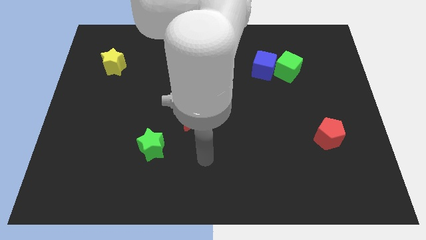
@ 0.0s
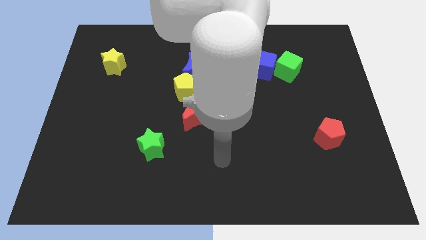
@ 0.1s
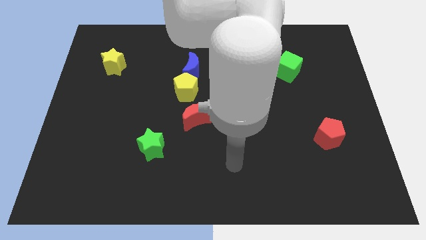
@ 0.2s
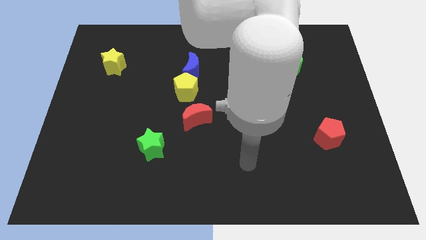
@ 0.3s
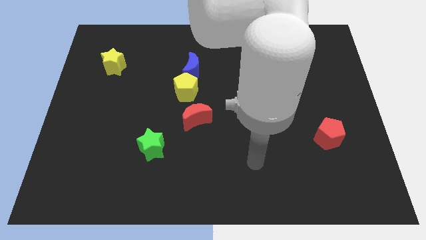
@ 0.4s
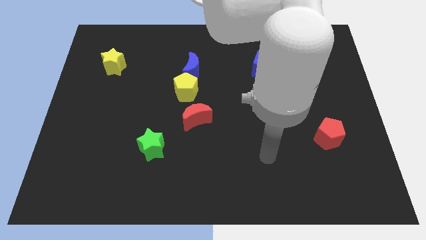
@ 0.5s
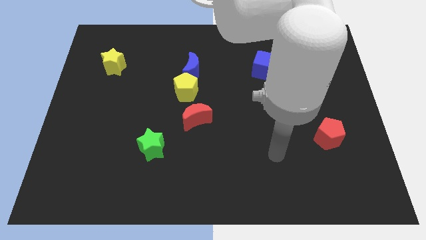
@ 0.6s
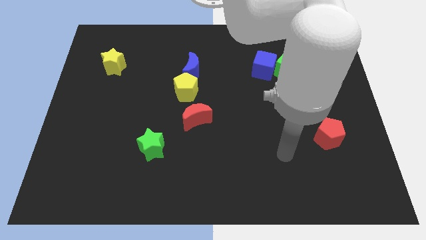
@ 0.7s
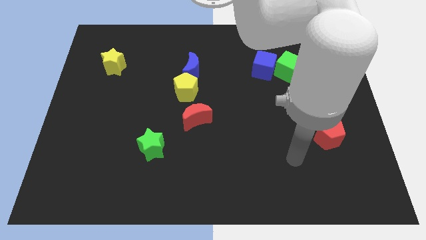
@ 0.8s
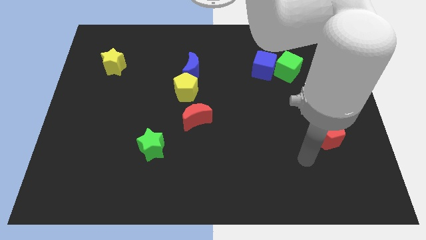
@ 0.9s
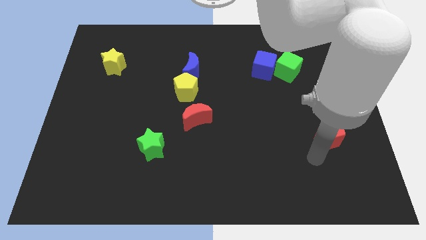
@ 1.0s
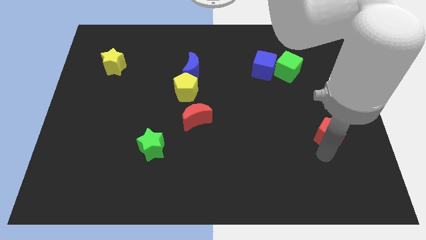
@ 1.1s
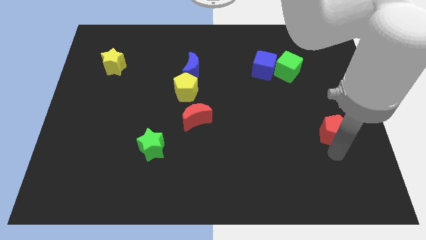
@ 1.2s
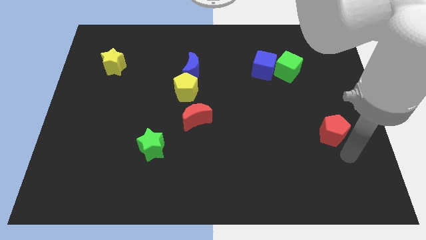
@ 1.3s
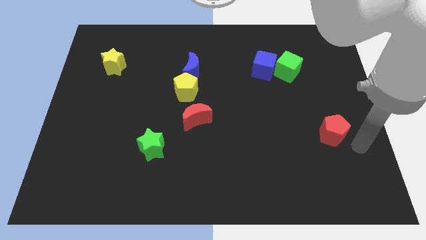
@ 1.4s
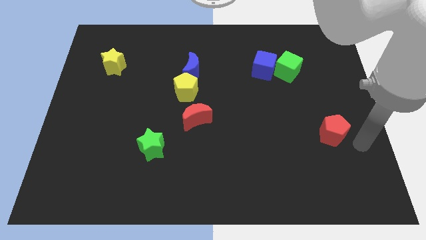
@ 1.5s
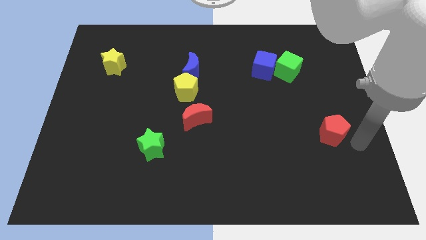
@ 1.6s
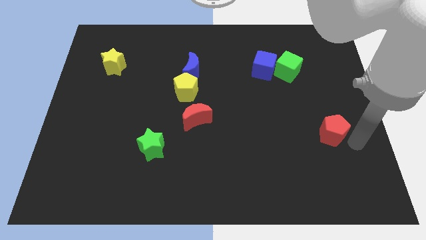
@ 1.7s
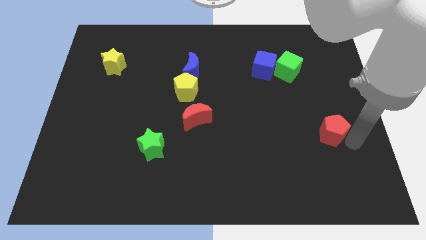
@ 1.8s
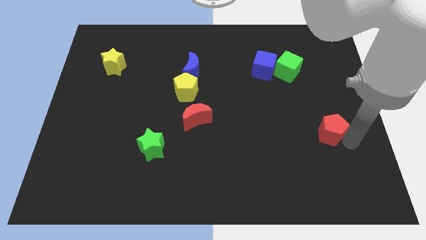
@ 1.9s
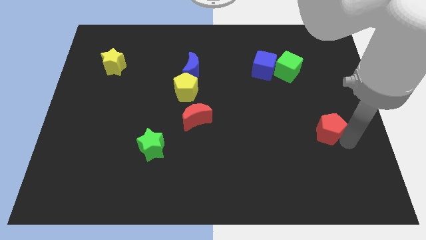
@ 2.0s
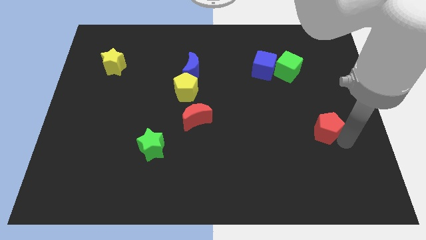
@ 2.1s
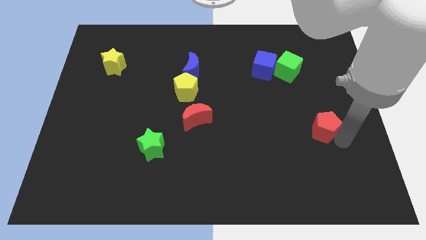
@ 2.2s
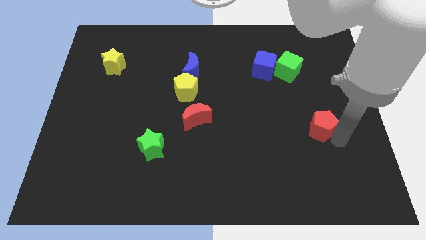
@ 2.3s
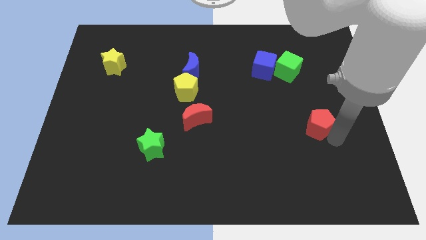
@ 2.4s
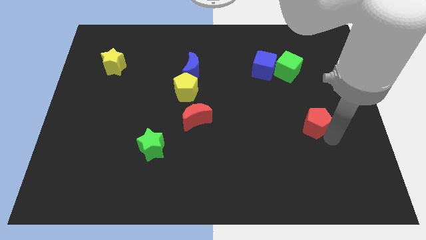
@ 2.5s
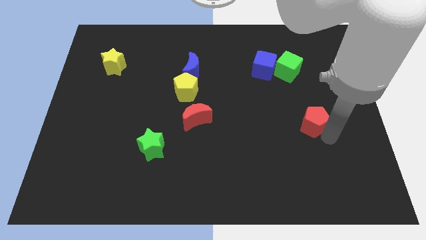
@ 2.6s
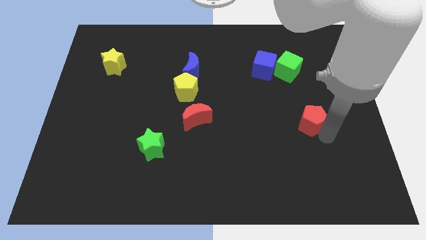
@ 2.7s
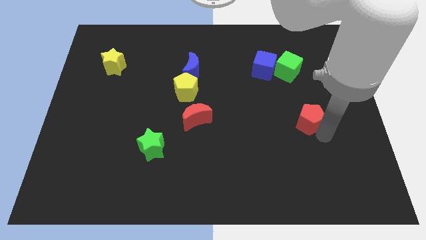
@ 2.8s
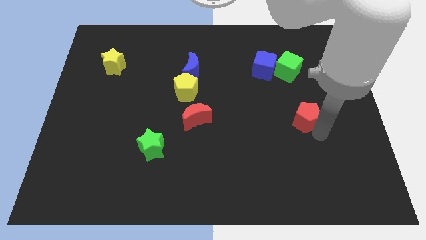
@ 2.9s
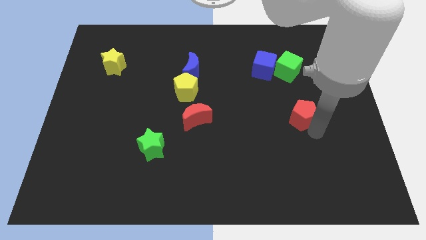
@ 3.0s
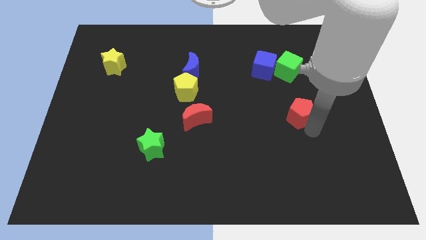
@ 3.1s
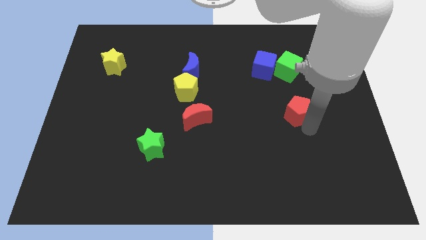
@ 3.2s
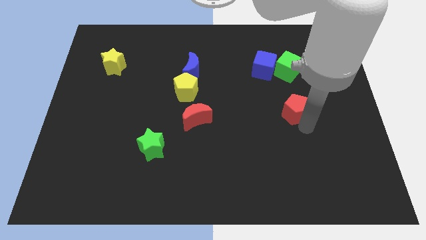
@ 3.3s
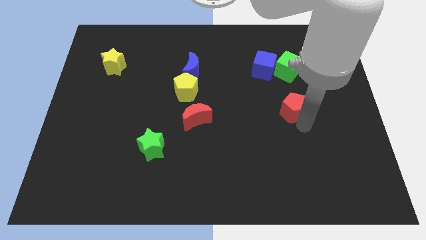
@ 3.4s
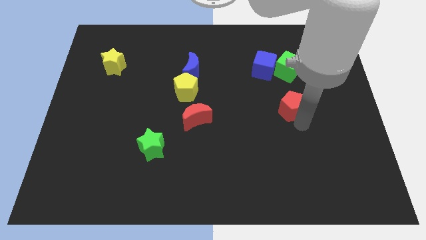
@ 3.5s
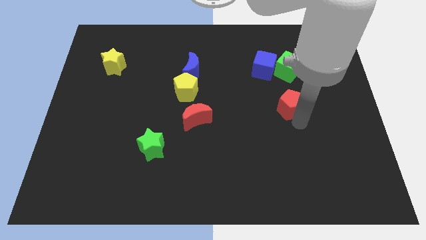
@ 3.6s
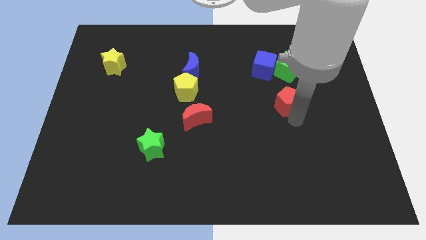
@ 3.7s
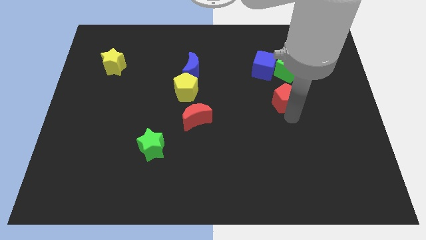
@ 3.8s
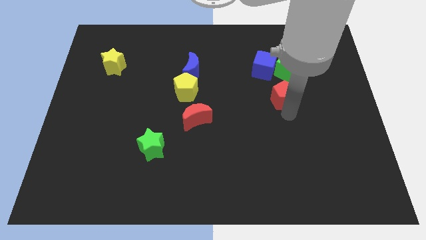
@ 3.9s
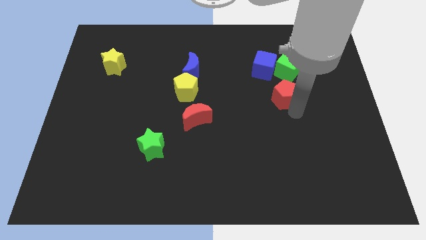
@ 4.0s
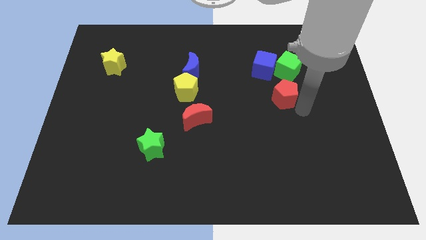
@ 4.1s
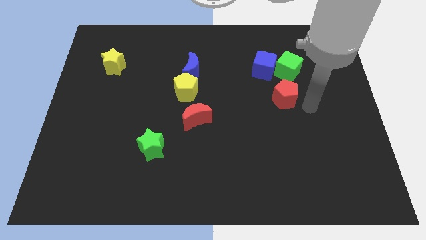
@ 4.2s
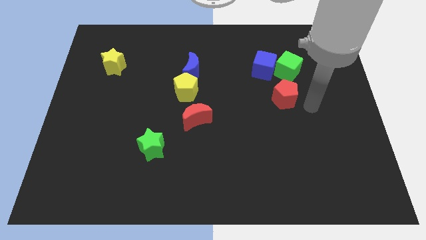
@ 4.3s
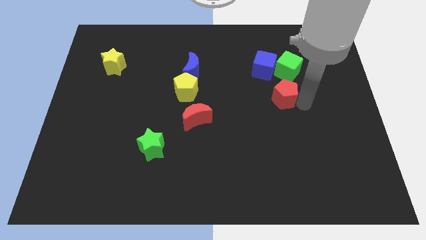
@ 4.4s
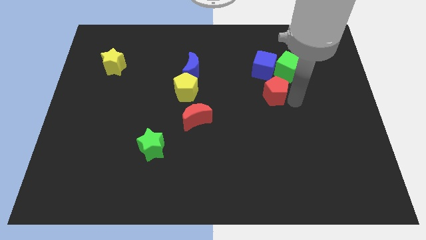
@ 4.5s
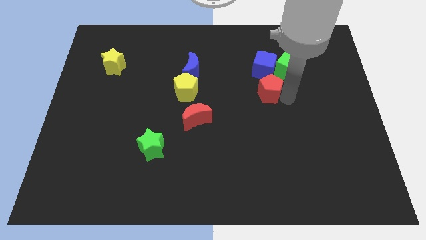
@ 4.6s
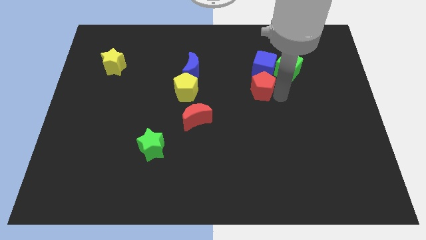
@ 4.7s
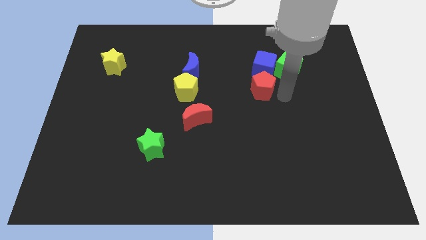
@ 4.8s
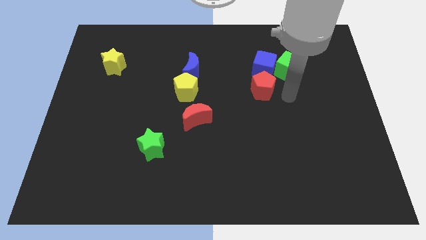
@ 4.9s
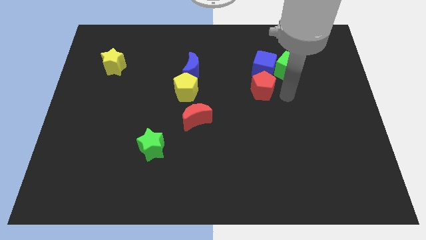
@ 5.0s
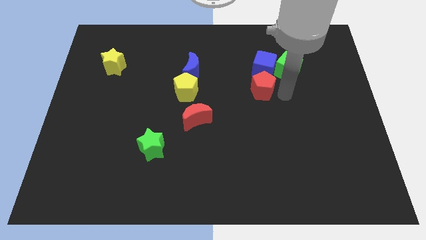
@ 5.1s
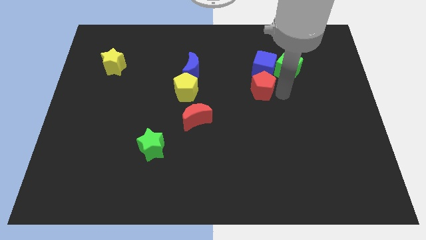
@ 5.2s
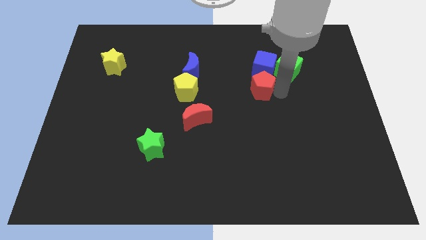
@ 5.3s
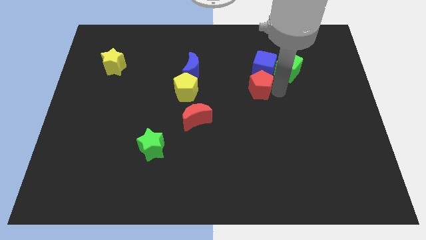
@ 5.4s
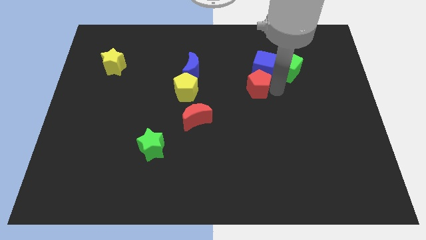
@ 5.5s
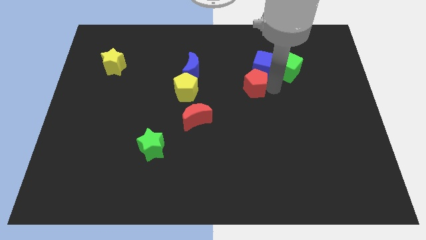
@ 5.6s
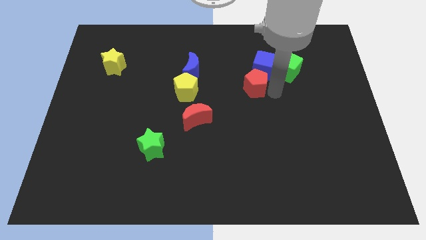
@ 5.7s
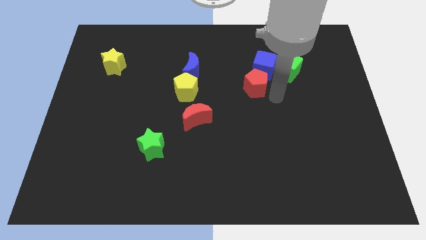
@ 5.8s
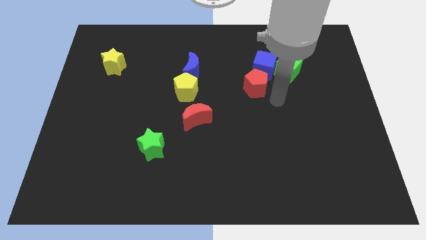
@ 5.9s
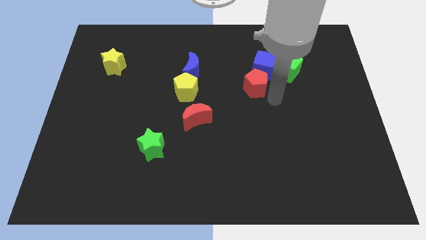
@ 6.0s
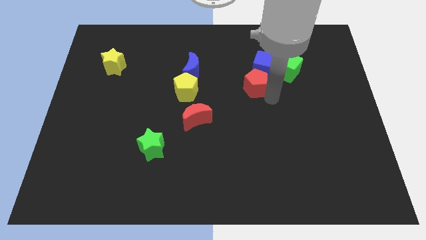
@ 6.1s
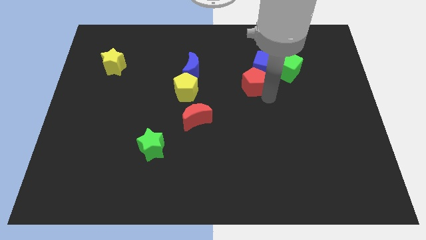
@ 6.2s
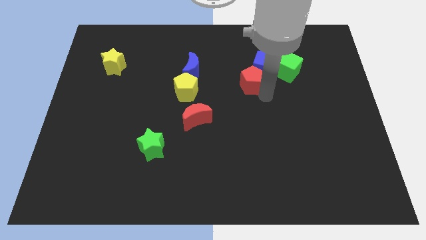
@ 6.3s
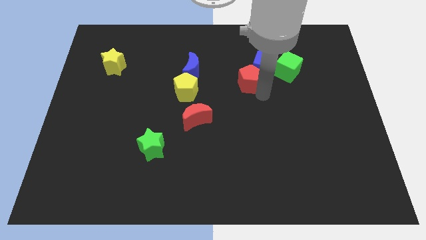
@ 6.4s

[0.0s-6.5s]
put the red pentagon right of the blue moon

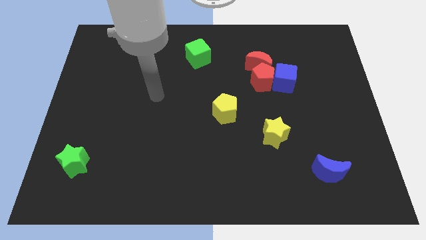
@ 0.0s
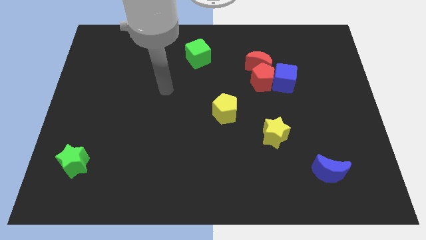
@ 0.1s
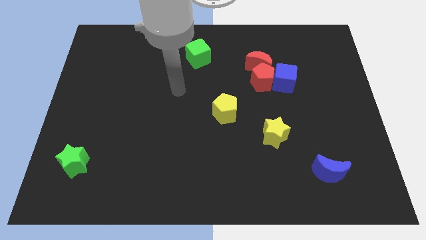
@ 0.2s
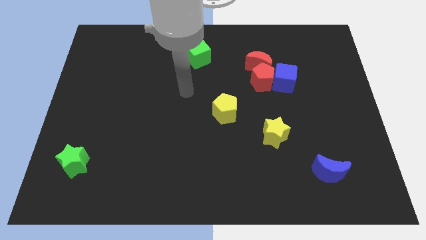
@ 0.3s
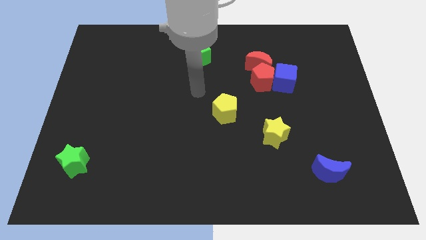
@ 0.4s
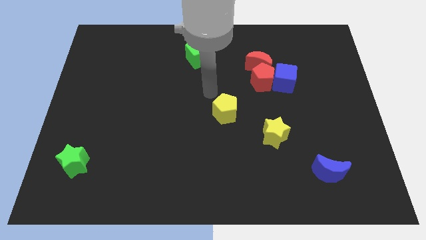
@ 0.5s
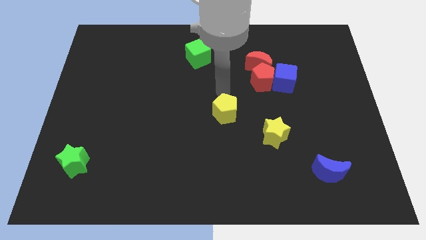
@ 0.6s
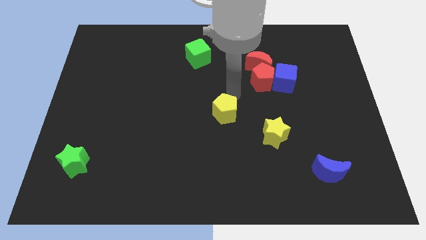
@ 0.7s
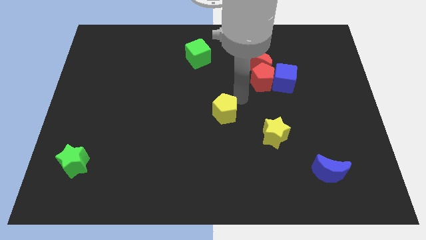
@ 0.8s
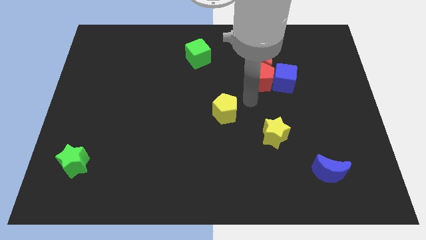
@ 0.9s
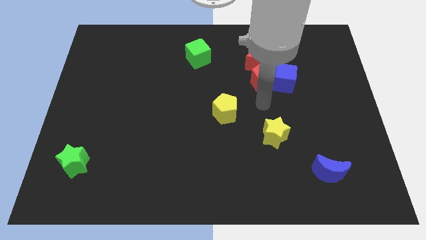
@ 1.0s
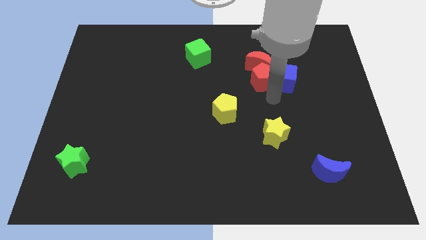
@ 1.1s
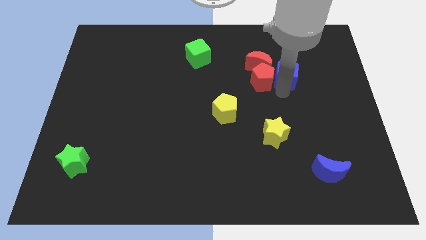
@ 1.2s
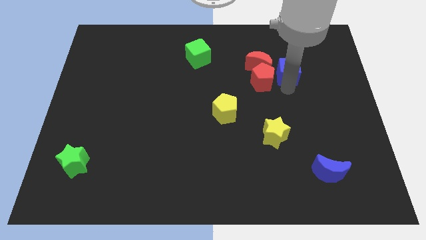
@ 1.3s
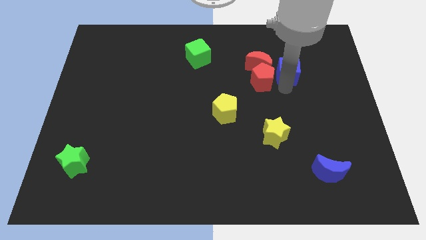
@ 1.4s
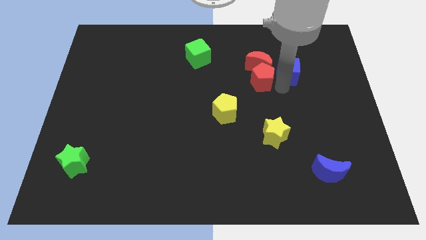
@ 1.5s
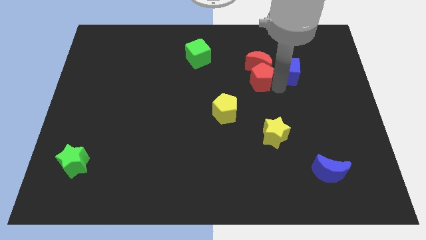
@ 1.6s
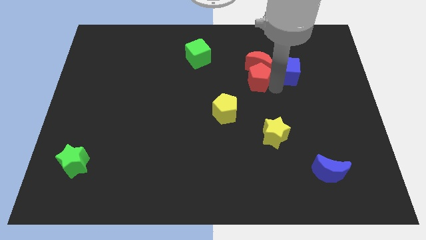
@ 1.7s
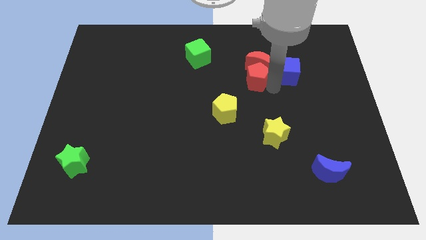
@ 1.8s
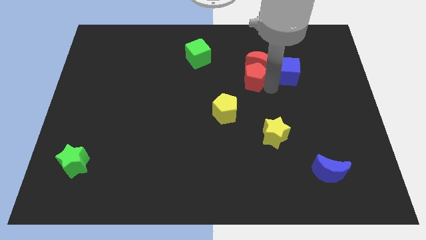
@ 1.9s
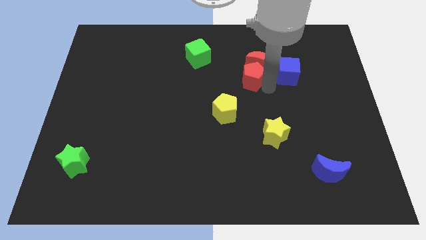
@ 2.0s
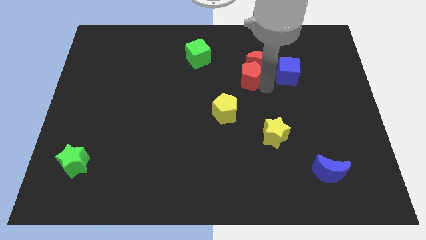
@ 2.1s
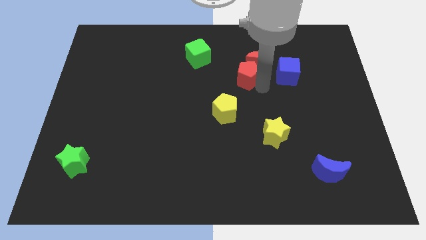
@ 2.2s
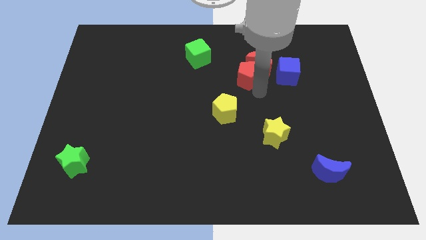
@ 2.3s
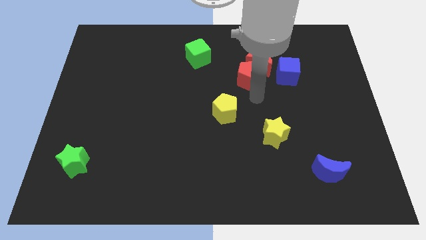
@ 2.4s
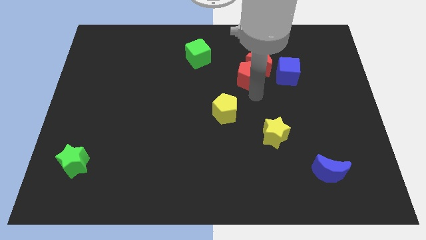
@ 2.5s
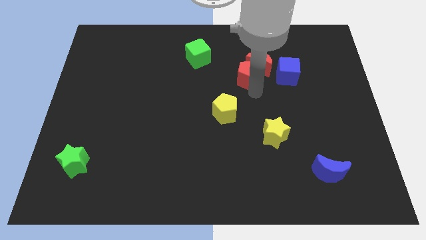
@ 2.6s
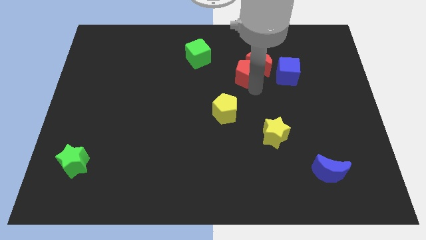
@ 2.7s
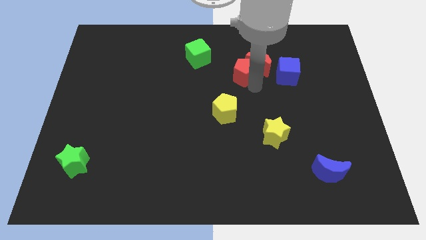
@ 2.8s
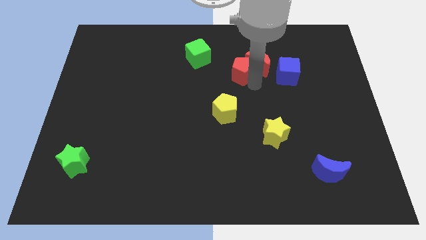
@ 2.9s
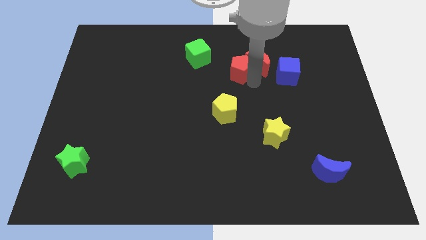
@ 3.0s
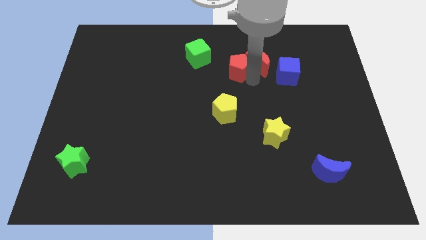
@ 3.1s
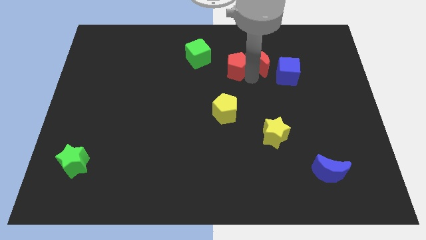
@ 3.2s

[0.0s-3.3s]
push the red pentagon just right of the green cube
